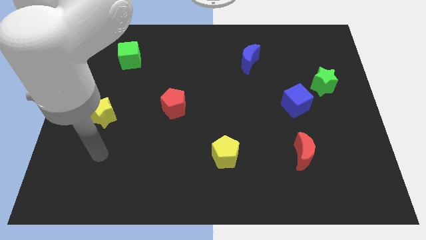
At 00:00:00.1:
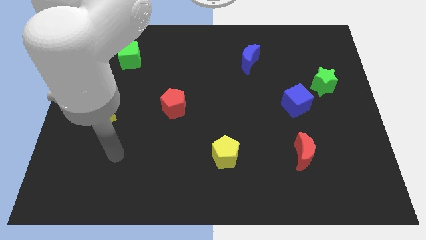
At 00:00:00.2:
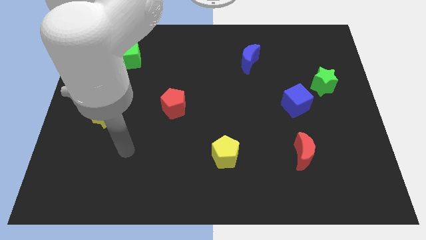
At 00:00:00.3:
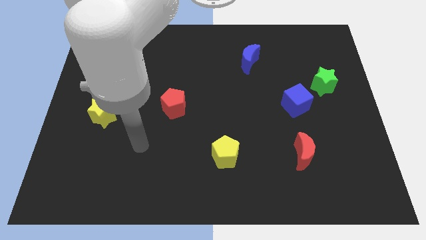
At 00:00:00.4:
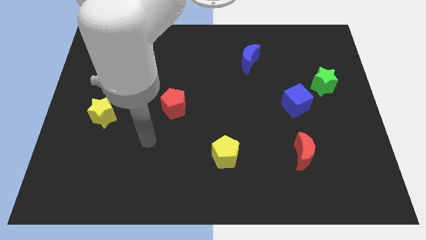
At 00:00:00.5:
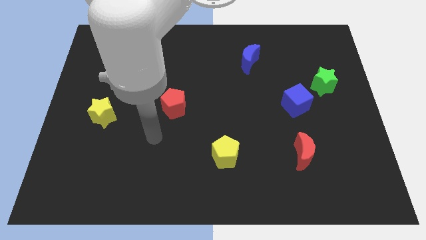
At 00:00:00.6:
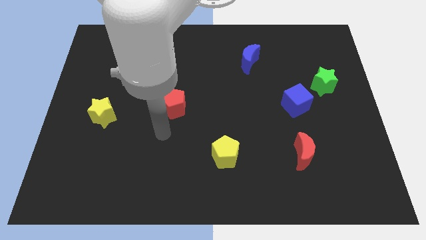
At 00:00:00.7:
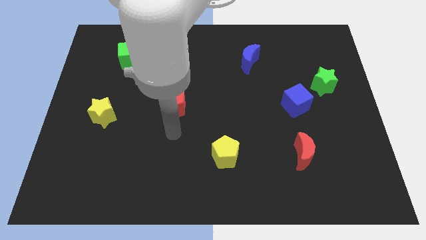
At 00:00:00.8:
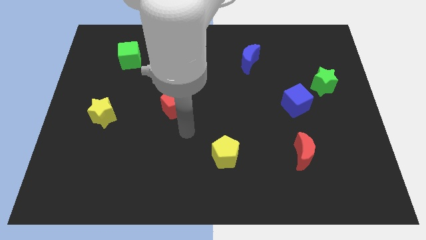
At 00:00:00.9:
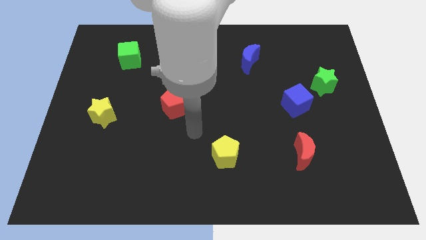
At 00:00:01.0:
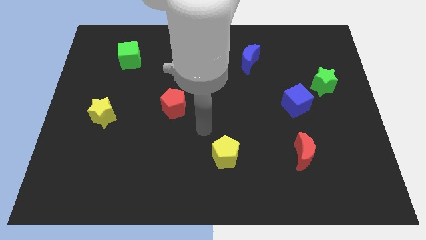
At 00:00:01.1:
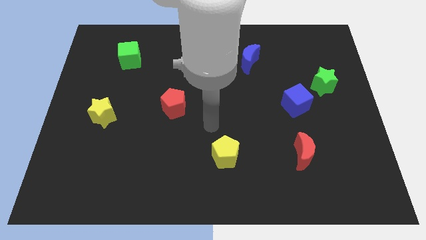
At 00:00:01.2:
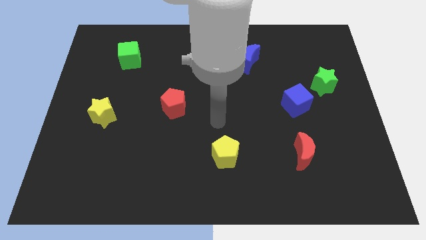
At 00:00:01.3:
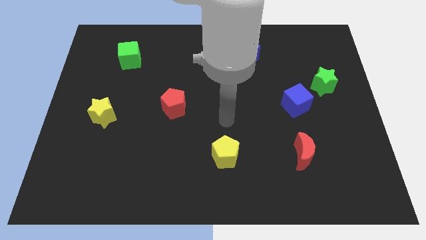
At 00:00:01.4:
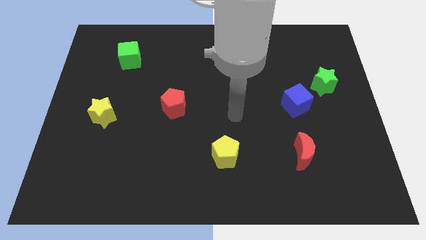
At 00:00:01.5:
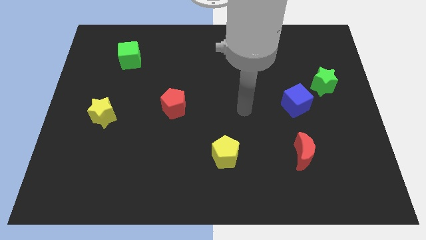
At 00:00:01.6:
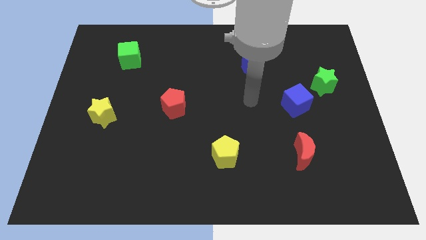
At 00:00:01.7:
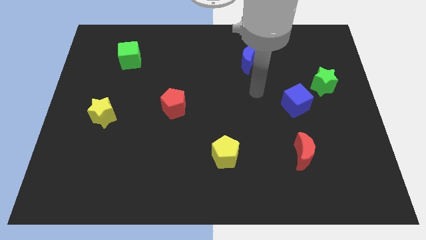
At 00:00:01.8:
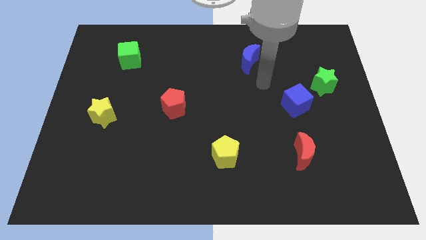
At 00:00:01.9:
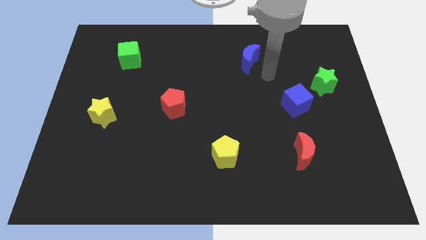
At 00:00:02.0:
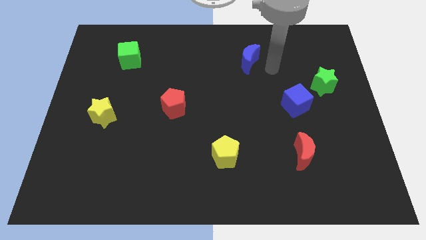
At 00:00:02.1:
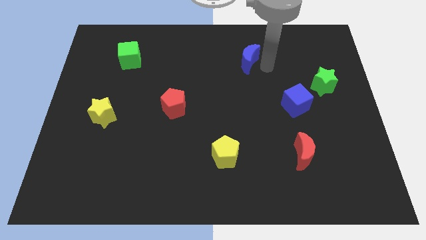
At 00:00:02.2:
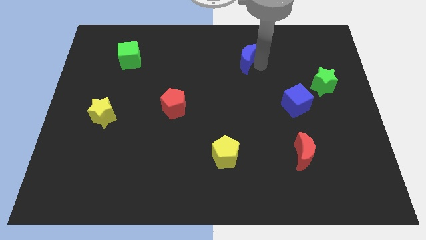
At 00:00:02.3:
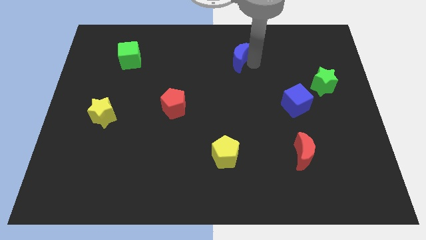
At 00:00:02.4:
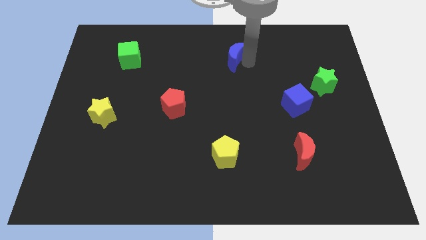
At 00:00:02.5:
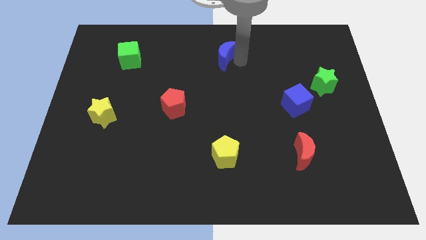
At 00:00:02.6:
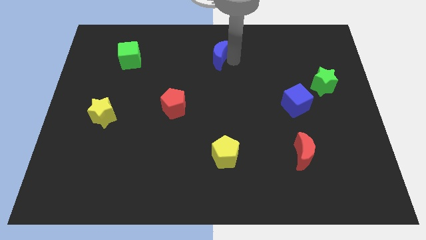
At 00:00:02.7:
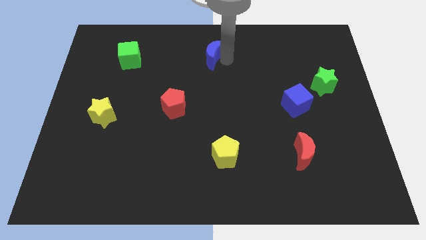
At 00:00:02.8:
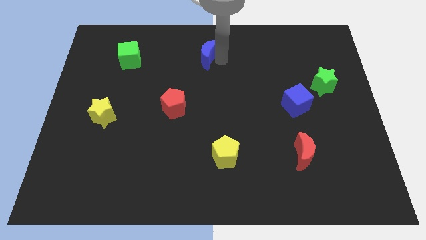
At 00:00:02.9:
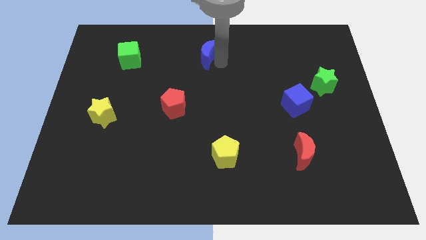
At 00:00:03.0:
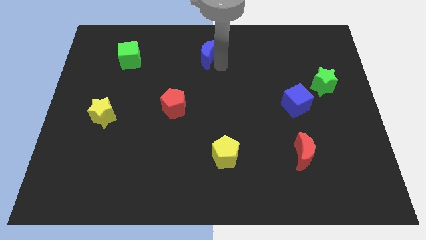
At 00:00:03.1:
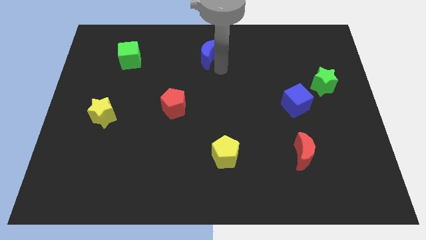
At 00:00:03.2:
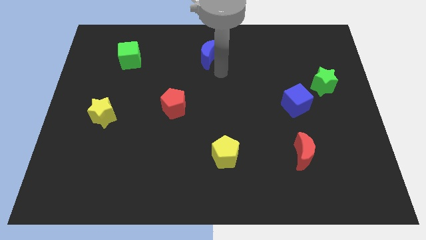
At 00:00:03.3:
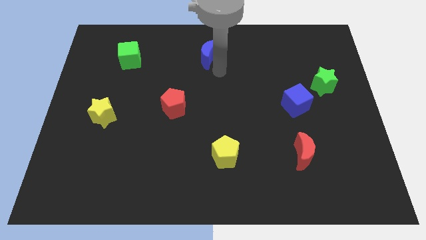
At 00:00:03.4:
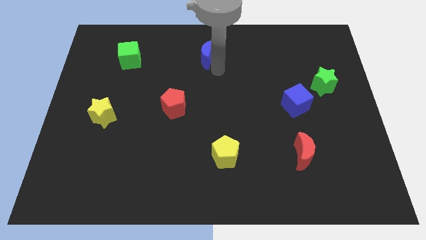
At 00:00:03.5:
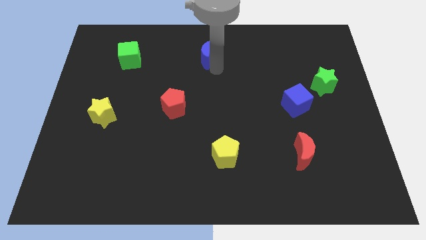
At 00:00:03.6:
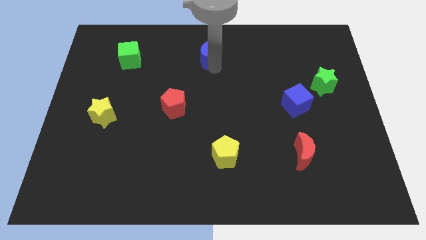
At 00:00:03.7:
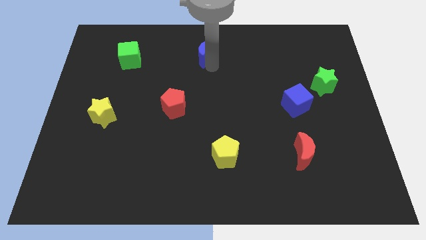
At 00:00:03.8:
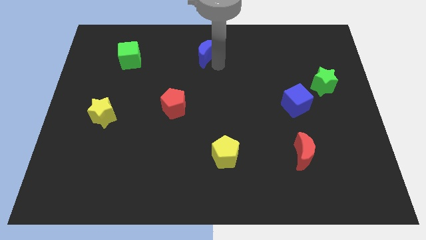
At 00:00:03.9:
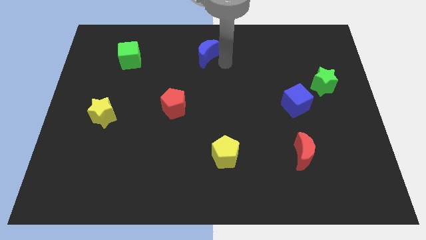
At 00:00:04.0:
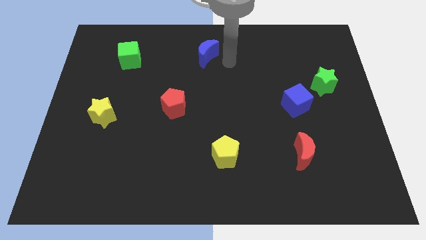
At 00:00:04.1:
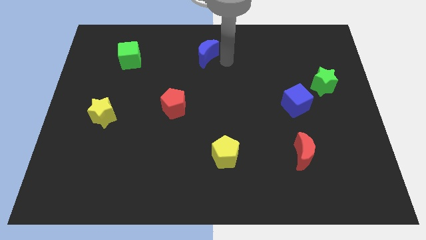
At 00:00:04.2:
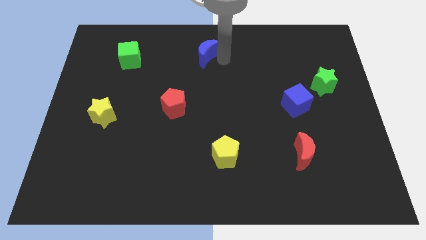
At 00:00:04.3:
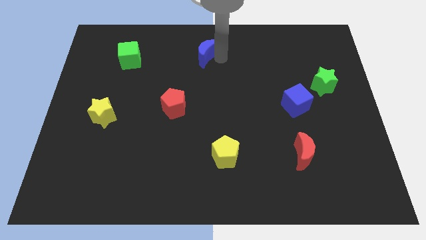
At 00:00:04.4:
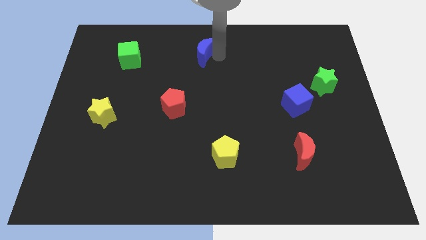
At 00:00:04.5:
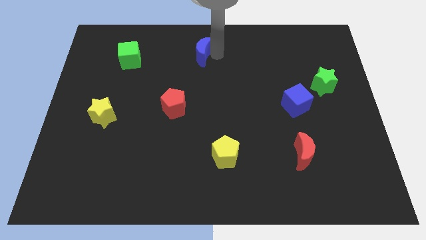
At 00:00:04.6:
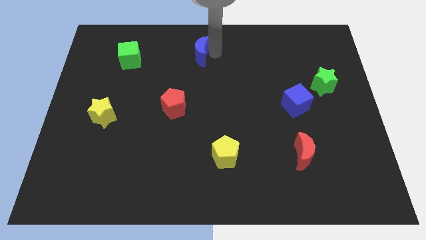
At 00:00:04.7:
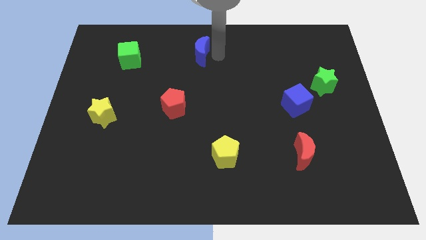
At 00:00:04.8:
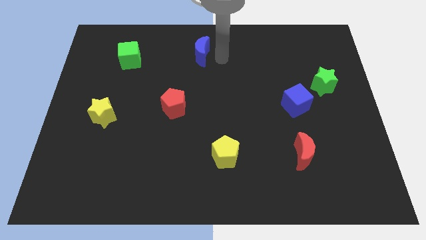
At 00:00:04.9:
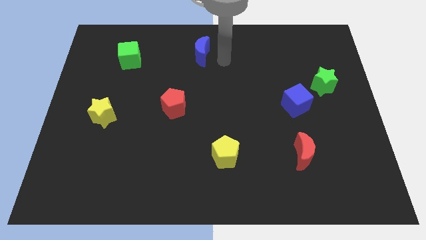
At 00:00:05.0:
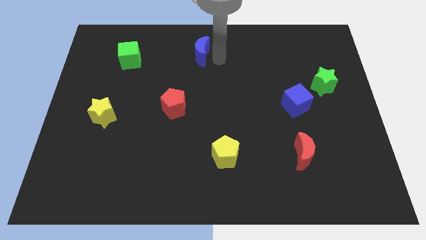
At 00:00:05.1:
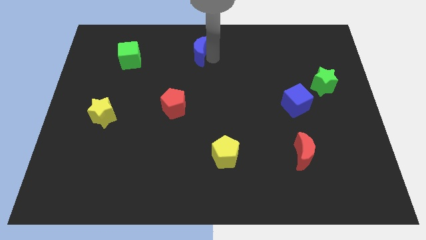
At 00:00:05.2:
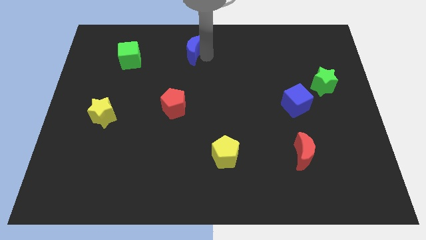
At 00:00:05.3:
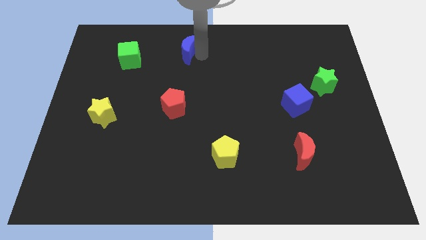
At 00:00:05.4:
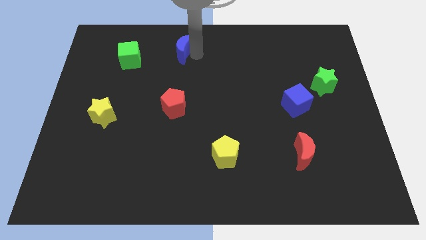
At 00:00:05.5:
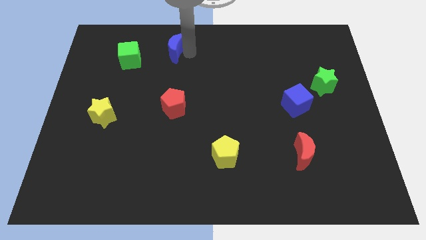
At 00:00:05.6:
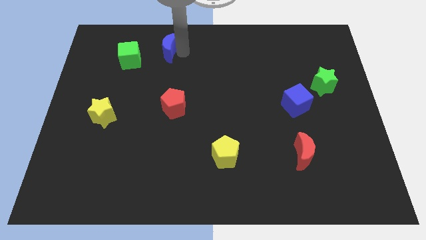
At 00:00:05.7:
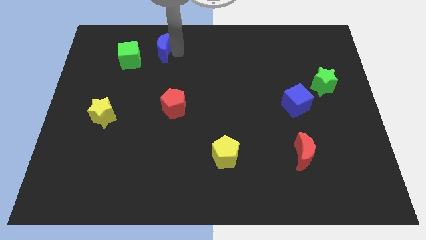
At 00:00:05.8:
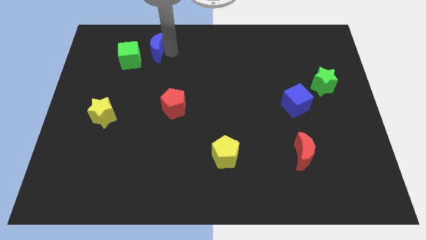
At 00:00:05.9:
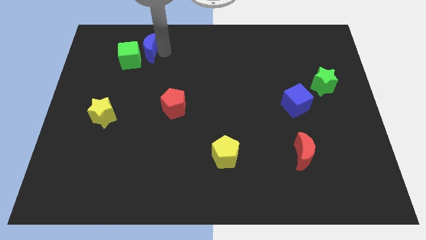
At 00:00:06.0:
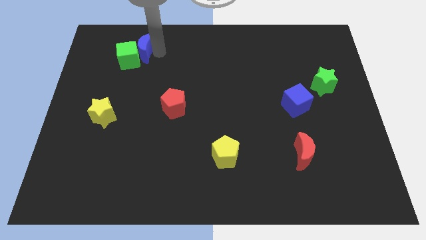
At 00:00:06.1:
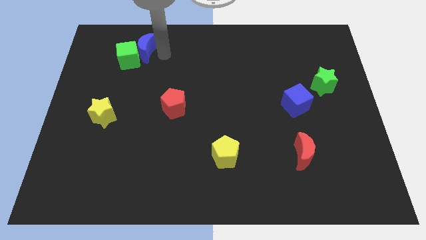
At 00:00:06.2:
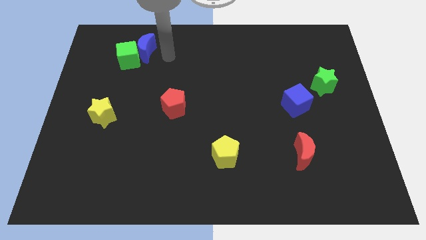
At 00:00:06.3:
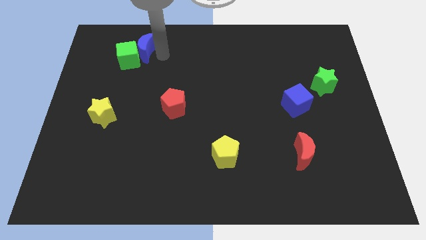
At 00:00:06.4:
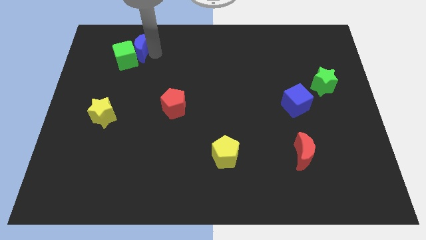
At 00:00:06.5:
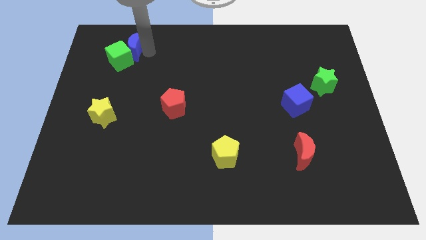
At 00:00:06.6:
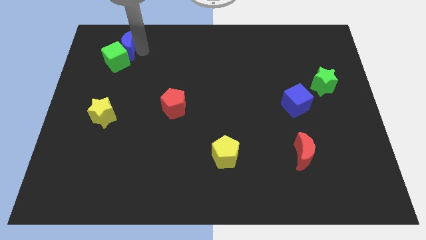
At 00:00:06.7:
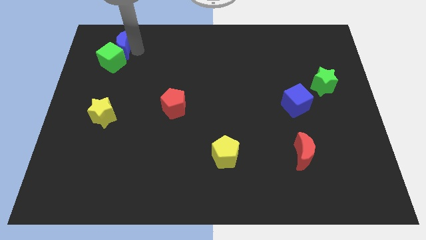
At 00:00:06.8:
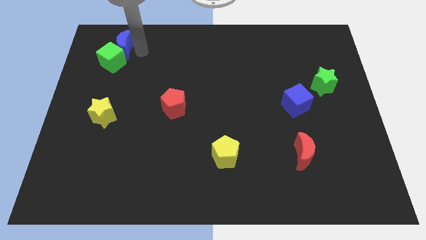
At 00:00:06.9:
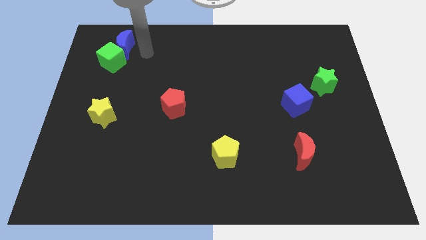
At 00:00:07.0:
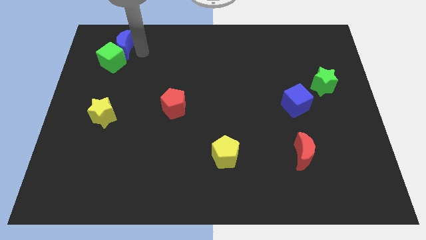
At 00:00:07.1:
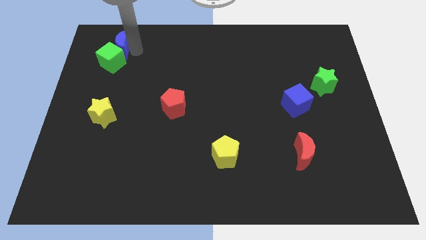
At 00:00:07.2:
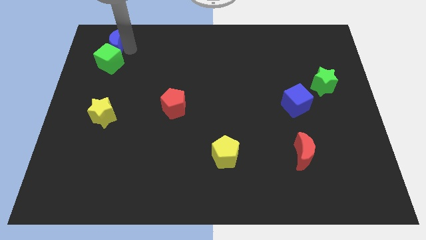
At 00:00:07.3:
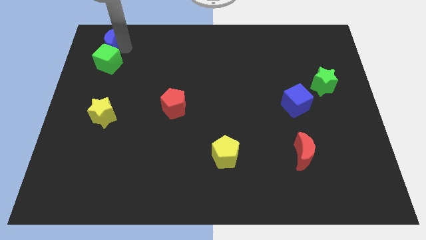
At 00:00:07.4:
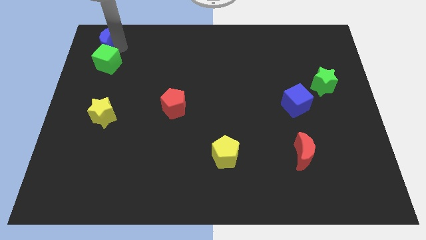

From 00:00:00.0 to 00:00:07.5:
push the blue moon to the top left
